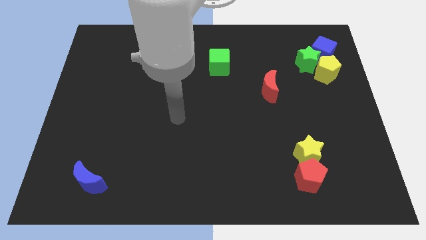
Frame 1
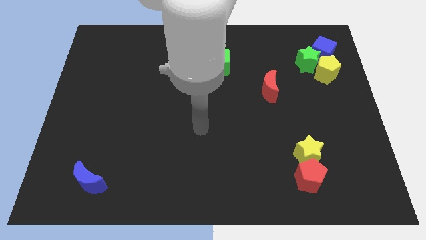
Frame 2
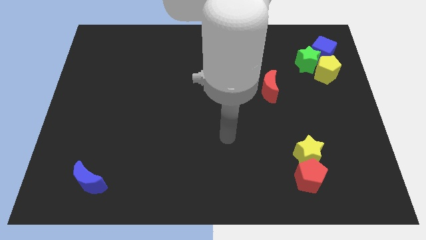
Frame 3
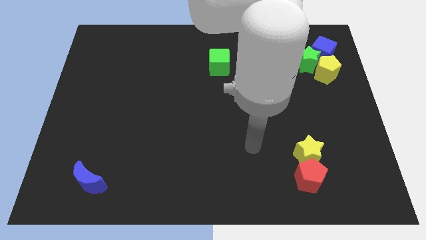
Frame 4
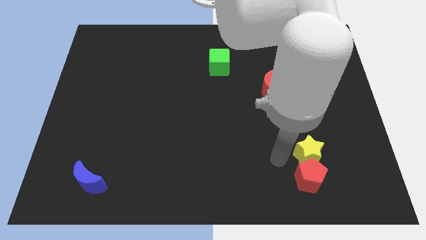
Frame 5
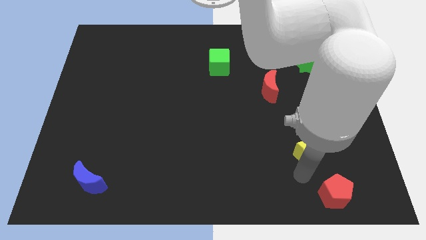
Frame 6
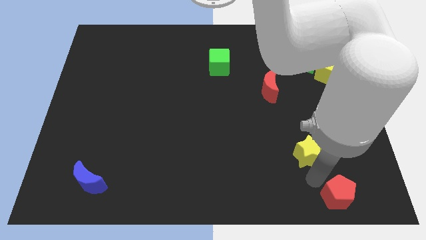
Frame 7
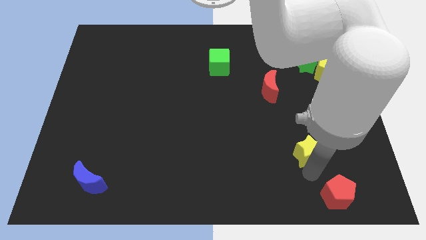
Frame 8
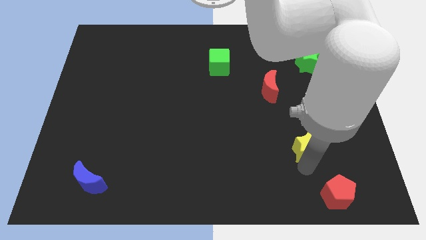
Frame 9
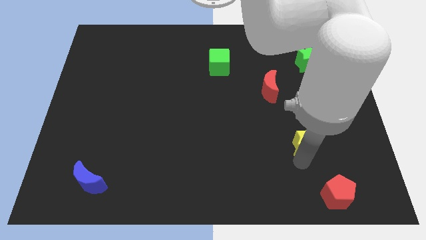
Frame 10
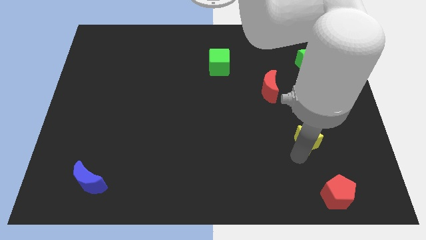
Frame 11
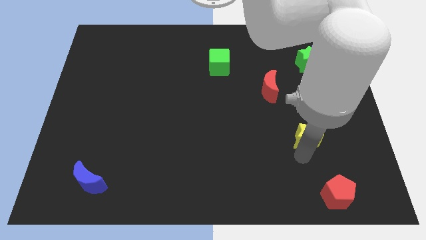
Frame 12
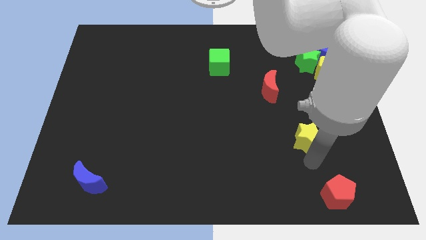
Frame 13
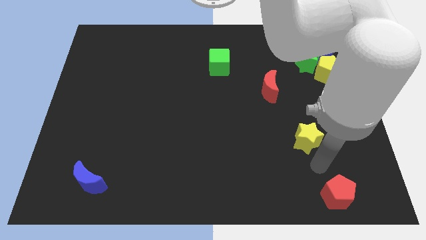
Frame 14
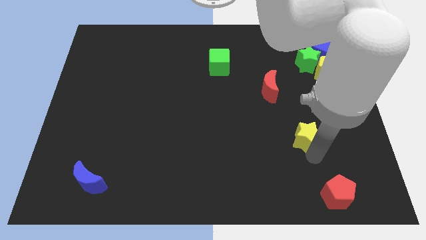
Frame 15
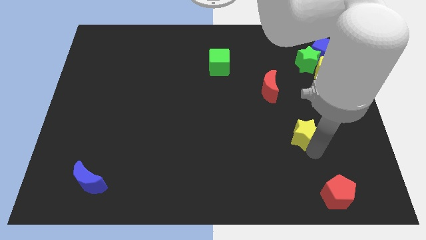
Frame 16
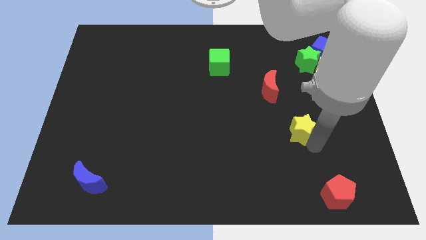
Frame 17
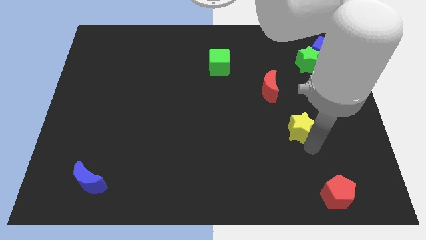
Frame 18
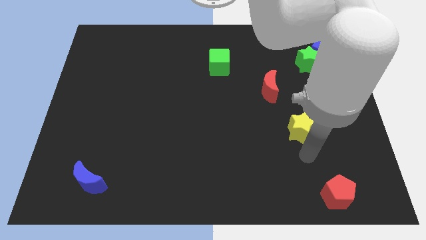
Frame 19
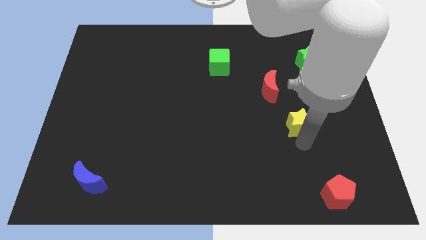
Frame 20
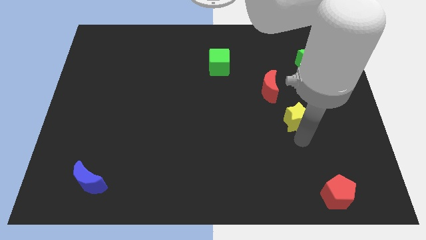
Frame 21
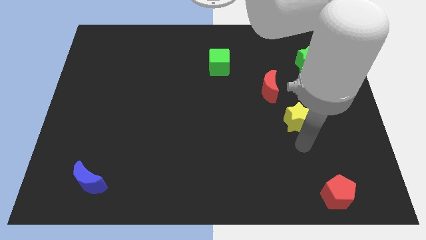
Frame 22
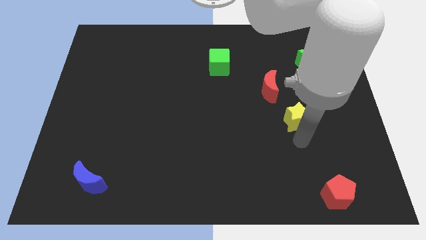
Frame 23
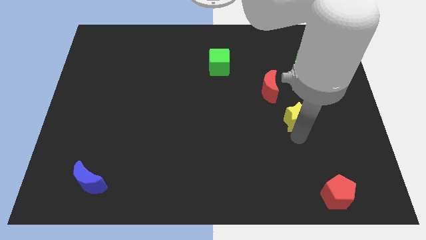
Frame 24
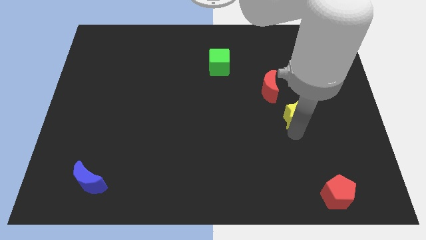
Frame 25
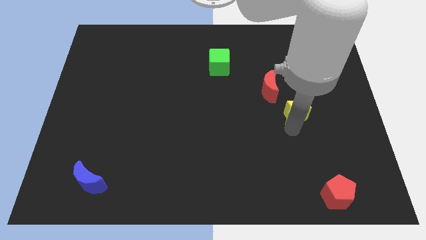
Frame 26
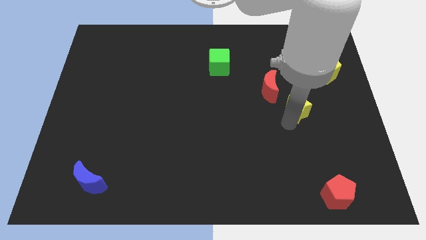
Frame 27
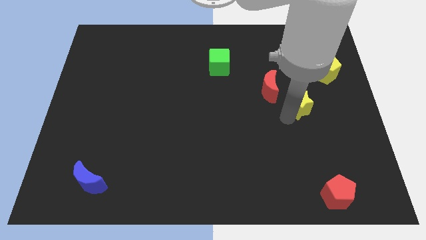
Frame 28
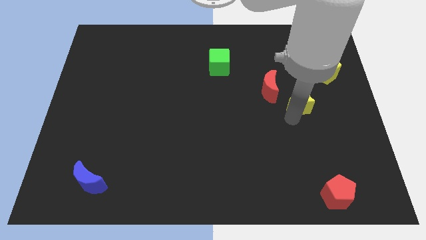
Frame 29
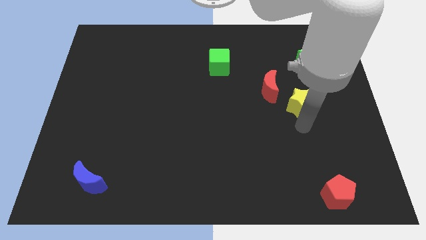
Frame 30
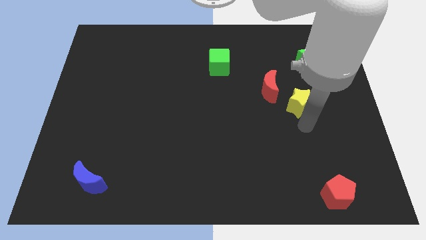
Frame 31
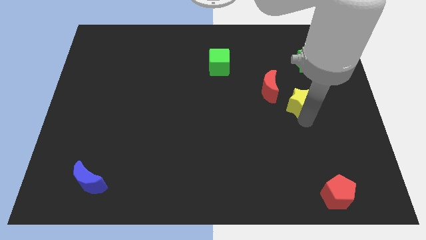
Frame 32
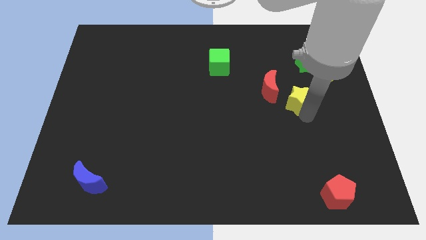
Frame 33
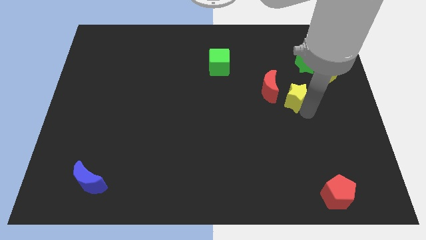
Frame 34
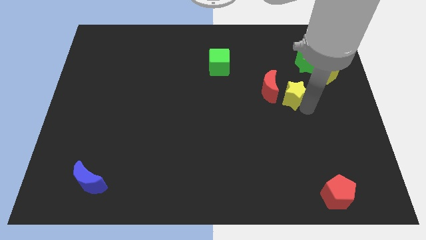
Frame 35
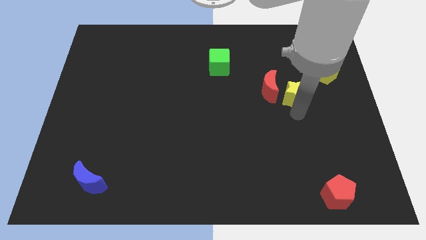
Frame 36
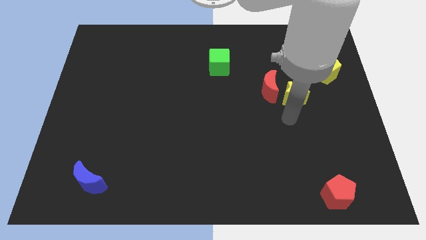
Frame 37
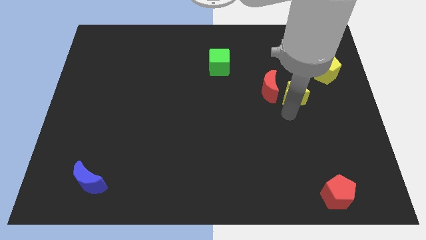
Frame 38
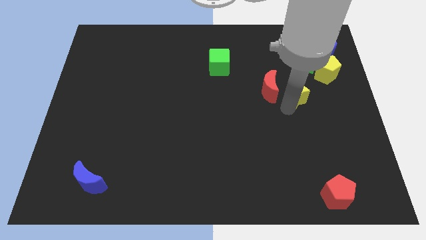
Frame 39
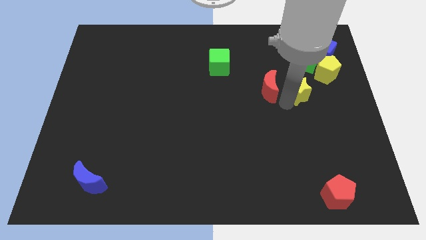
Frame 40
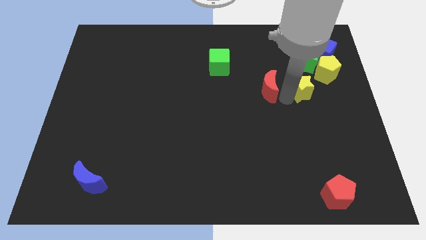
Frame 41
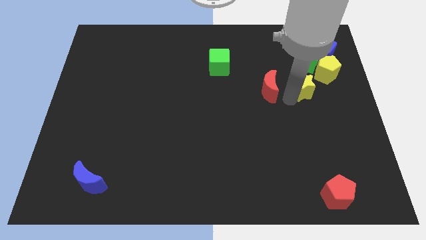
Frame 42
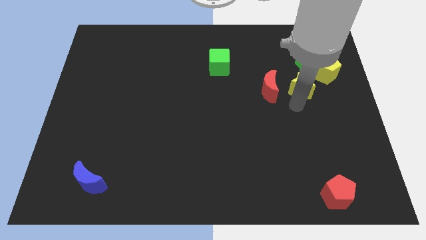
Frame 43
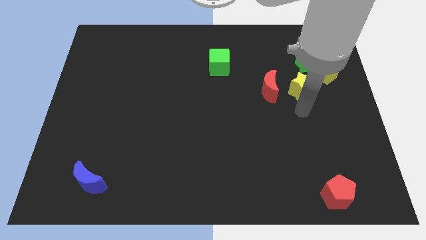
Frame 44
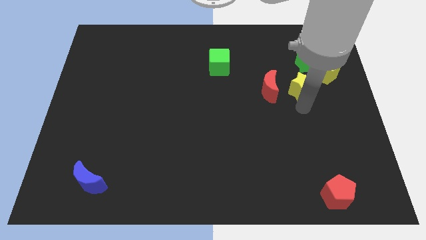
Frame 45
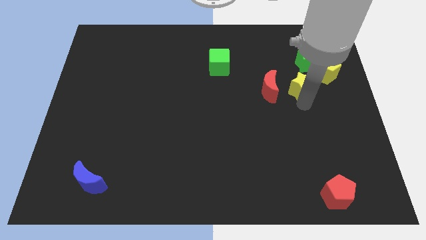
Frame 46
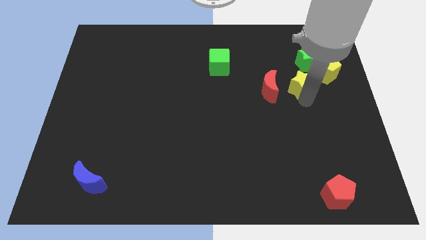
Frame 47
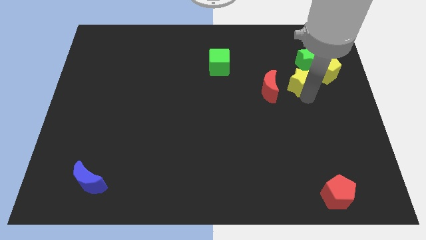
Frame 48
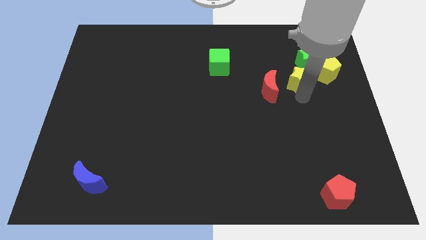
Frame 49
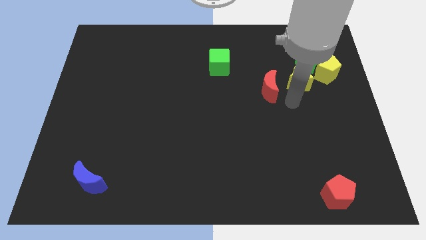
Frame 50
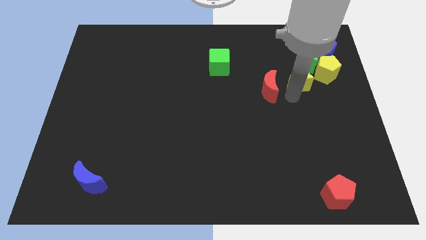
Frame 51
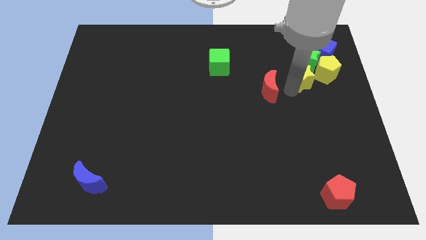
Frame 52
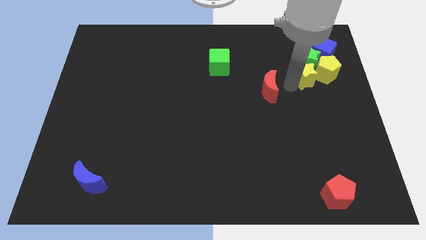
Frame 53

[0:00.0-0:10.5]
push the yellow star to the green star

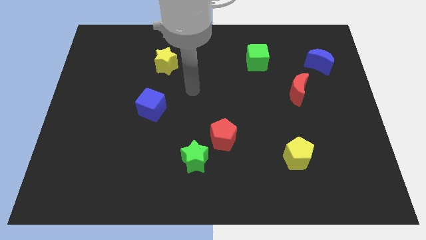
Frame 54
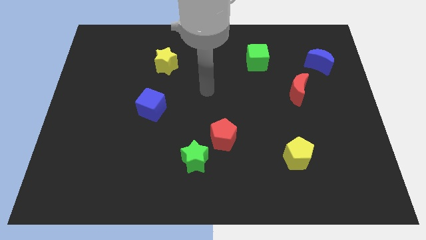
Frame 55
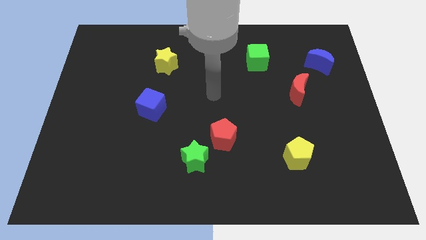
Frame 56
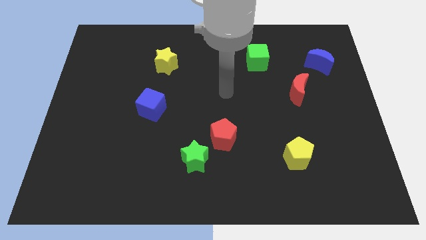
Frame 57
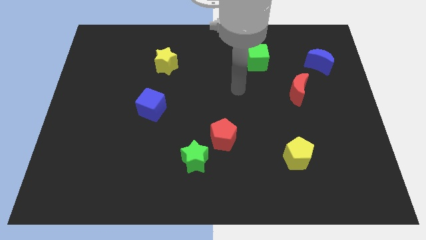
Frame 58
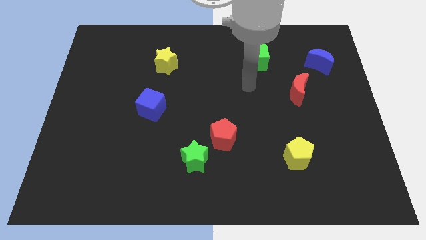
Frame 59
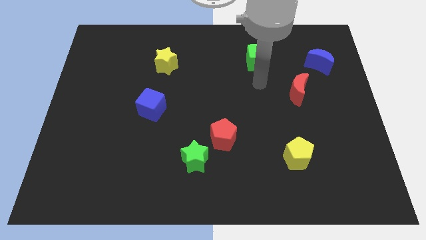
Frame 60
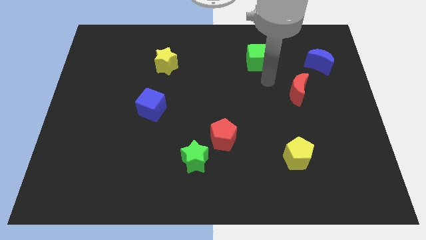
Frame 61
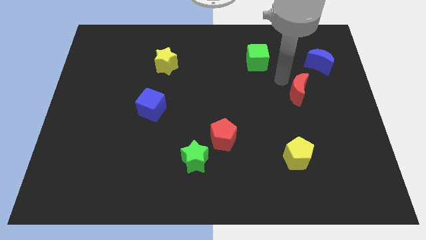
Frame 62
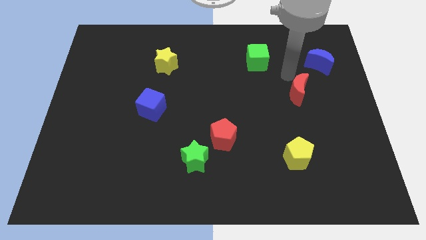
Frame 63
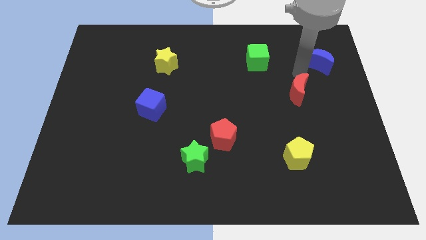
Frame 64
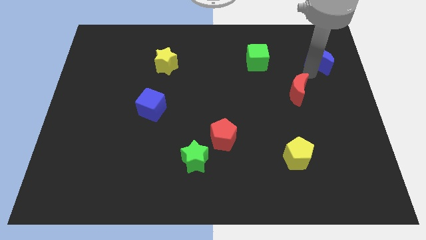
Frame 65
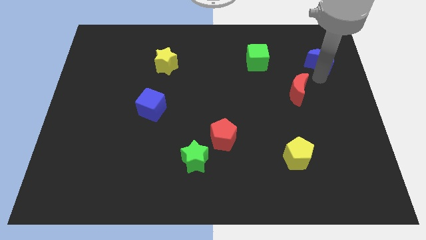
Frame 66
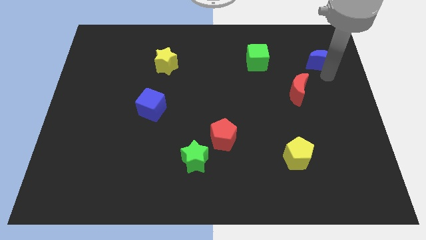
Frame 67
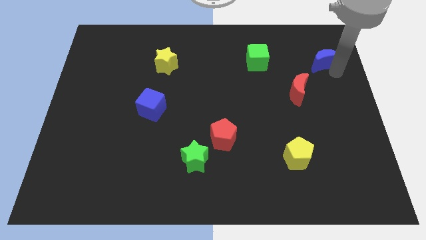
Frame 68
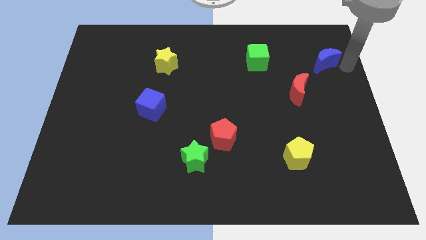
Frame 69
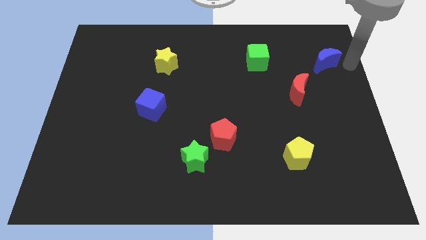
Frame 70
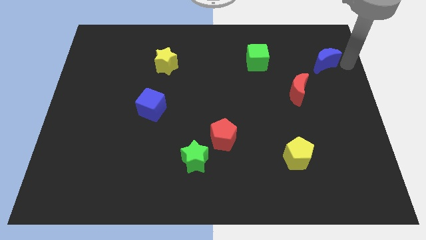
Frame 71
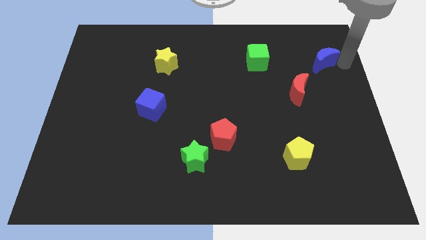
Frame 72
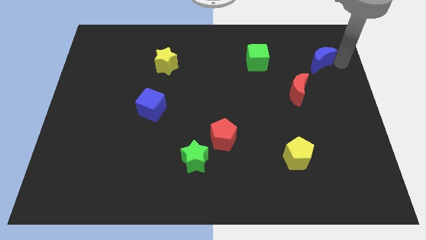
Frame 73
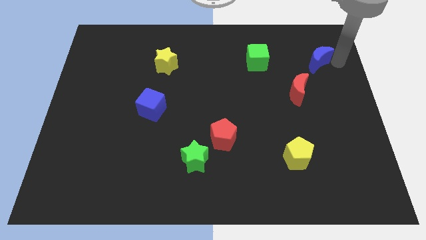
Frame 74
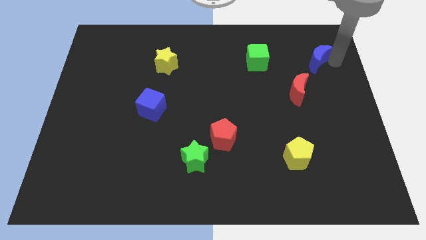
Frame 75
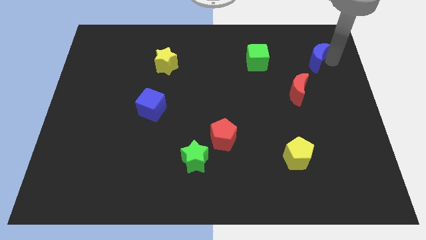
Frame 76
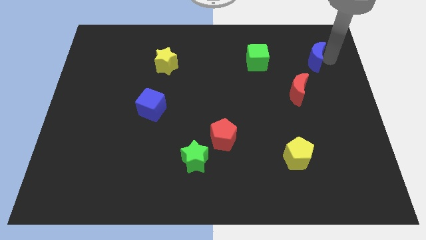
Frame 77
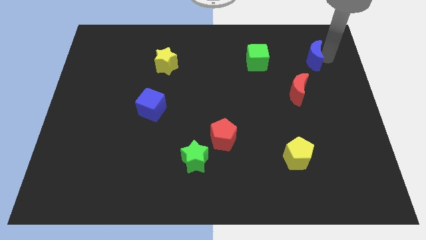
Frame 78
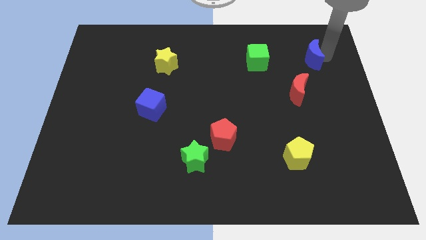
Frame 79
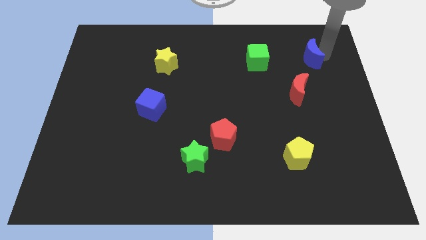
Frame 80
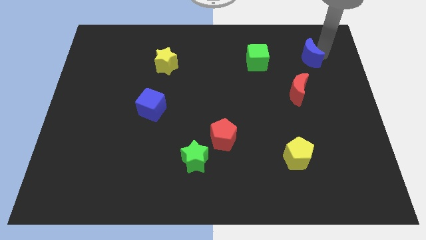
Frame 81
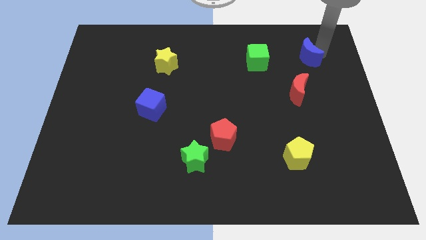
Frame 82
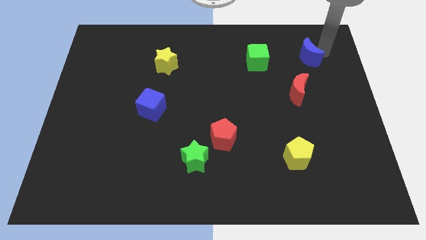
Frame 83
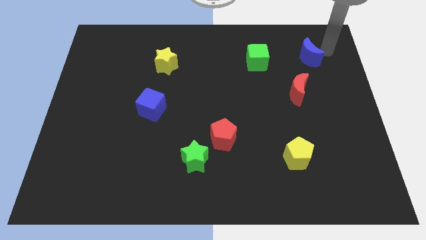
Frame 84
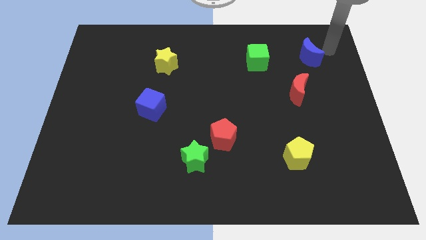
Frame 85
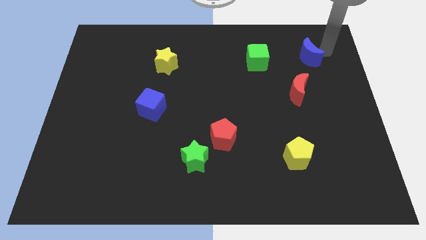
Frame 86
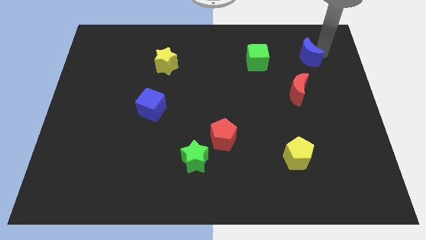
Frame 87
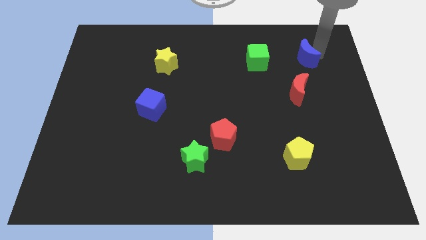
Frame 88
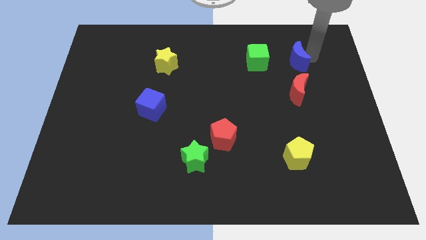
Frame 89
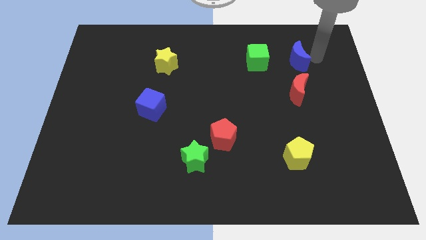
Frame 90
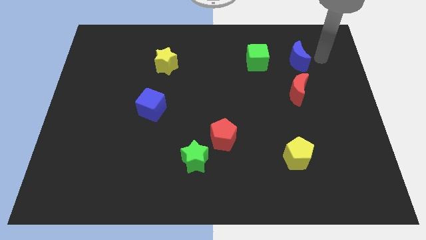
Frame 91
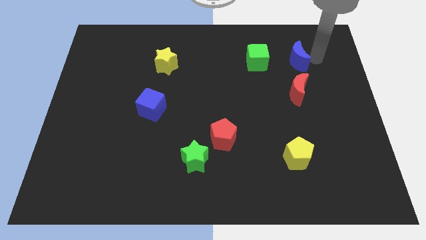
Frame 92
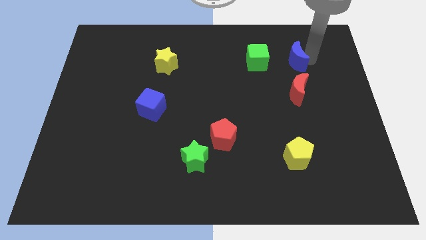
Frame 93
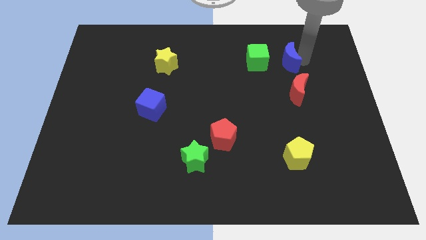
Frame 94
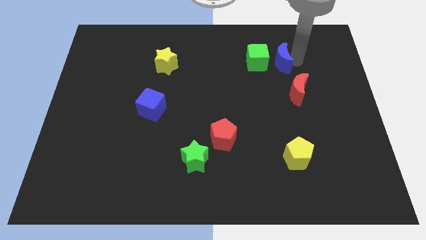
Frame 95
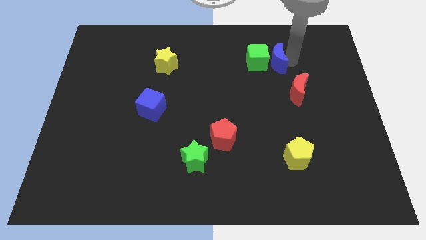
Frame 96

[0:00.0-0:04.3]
push the blue moon next to the green cube
